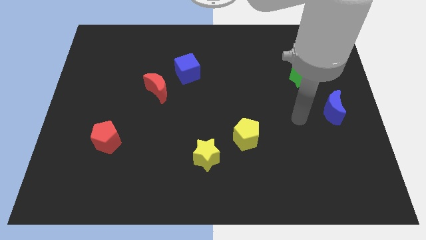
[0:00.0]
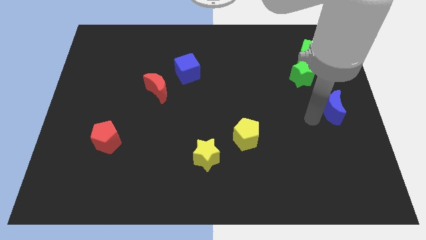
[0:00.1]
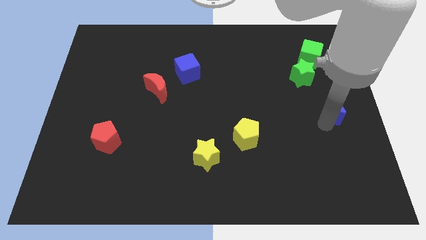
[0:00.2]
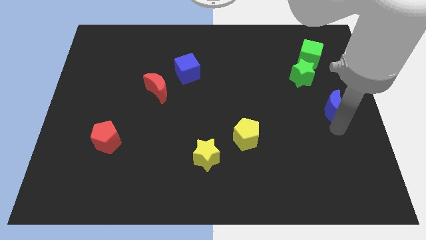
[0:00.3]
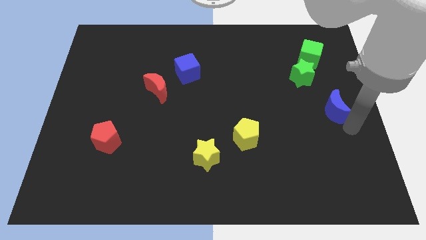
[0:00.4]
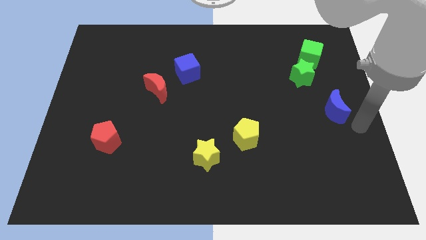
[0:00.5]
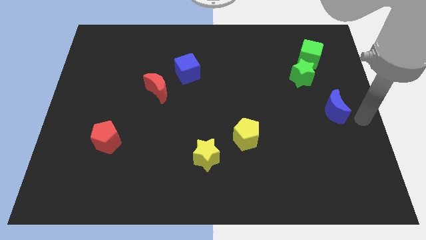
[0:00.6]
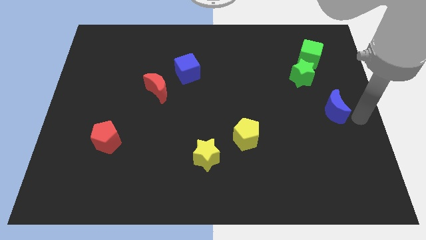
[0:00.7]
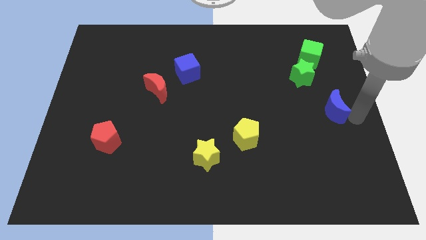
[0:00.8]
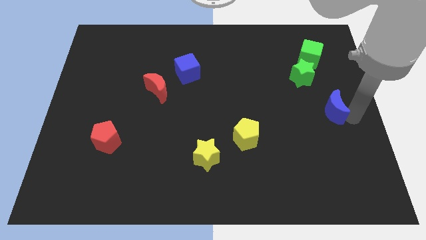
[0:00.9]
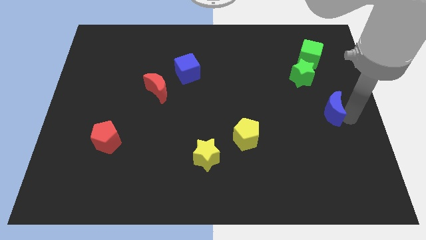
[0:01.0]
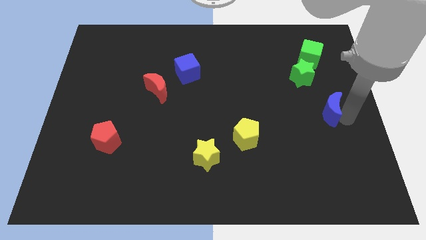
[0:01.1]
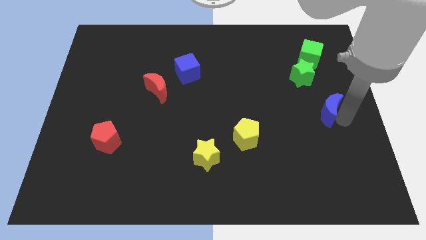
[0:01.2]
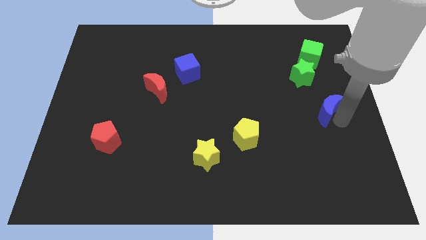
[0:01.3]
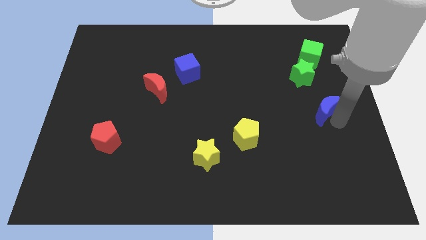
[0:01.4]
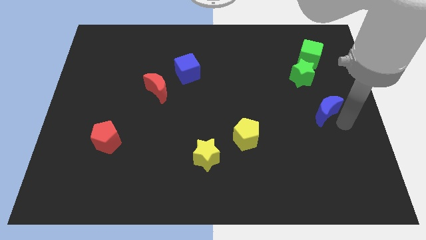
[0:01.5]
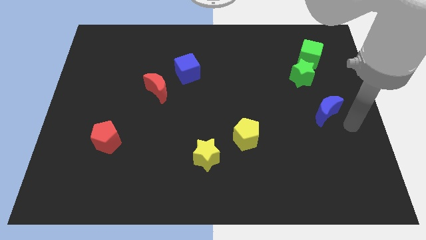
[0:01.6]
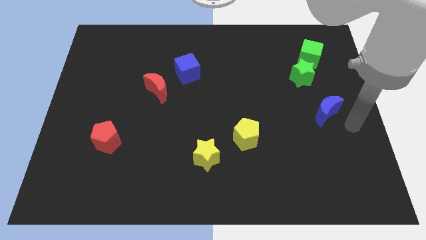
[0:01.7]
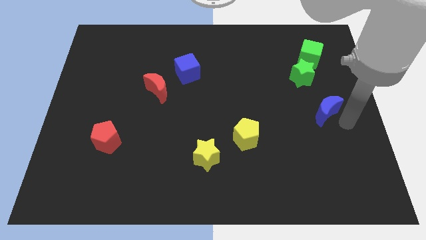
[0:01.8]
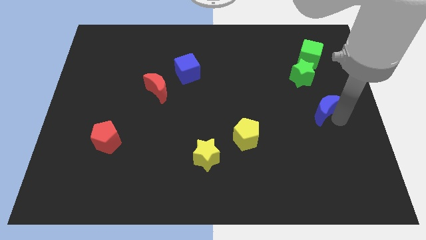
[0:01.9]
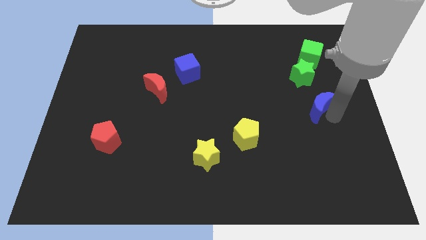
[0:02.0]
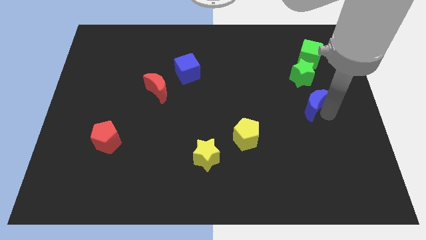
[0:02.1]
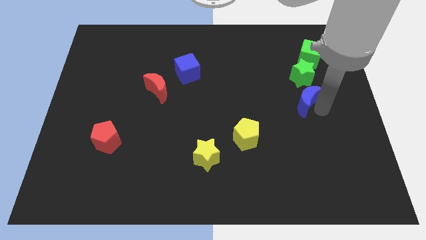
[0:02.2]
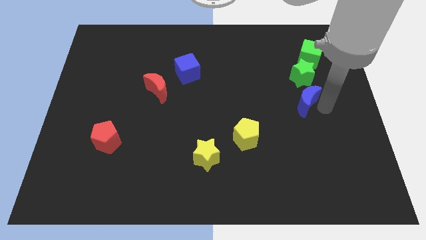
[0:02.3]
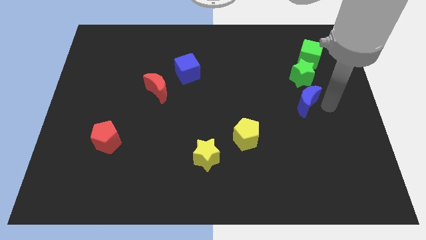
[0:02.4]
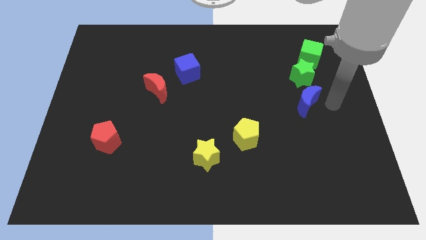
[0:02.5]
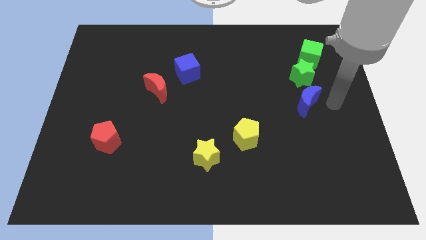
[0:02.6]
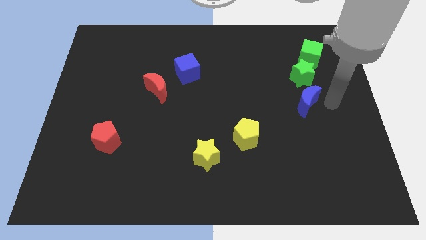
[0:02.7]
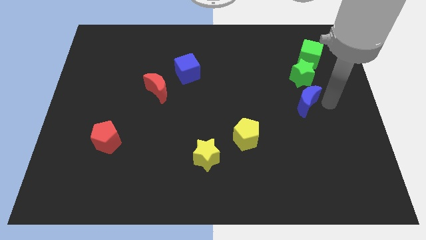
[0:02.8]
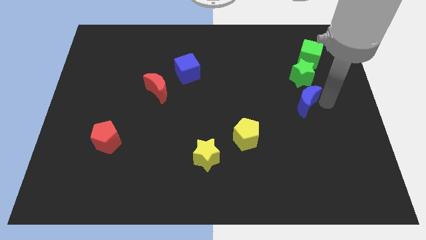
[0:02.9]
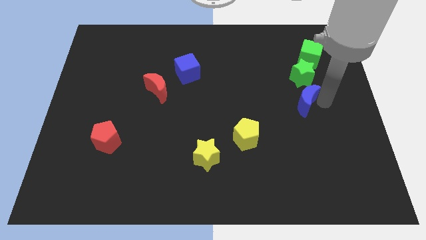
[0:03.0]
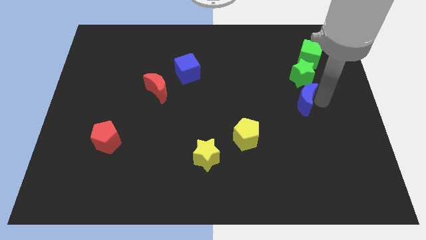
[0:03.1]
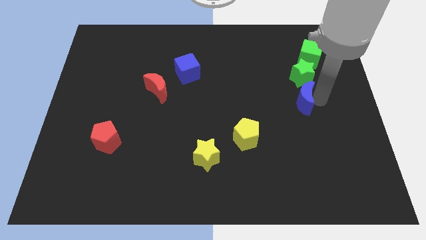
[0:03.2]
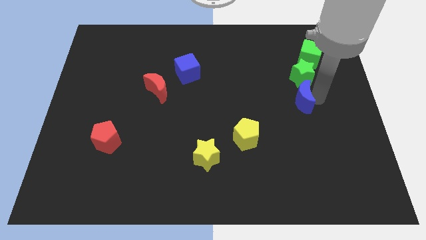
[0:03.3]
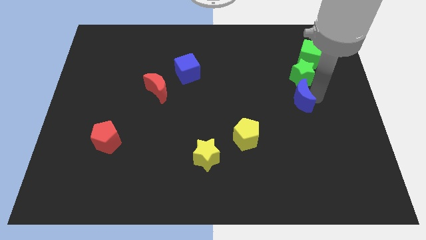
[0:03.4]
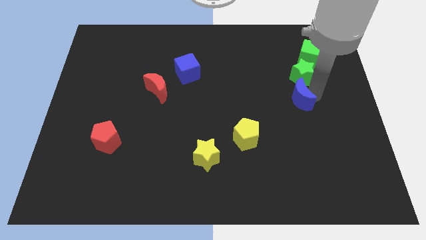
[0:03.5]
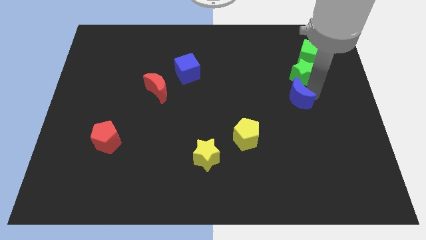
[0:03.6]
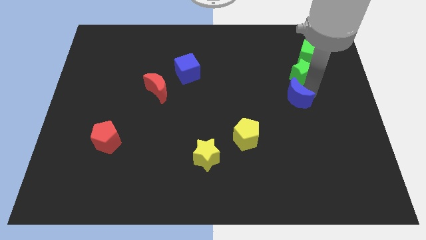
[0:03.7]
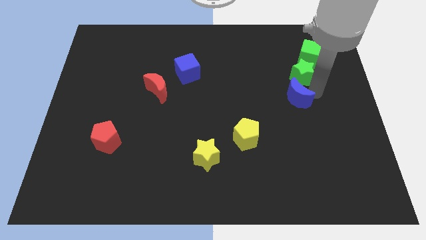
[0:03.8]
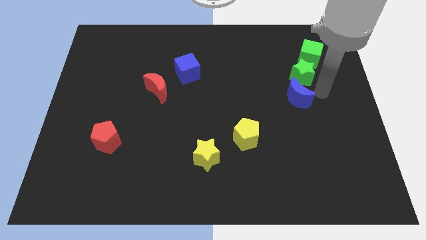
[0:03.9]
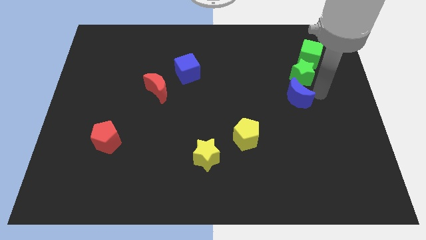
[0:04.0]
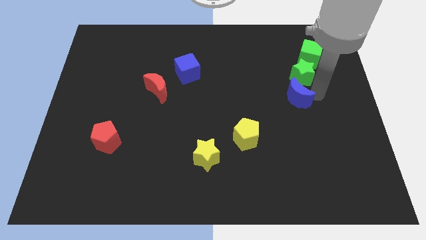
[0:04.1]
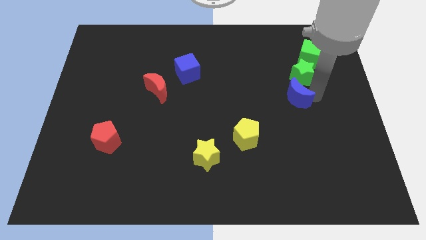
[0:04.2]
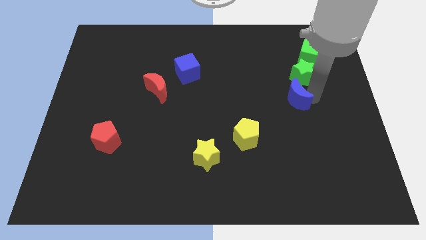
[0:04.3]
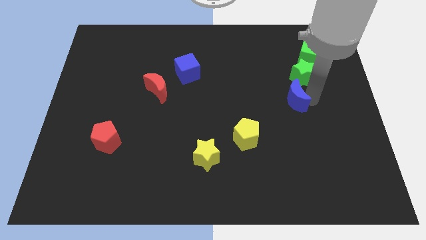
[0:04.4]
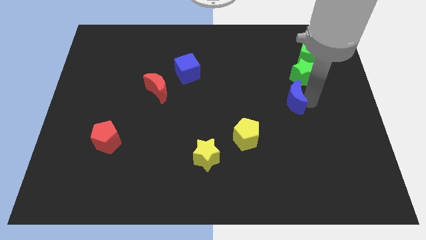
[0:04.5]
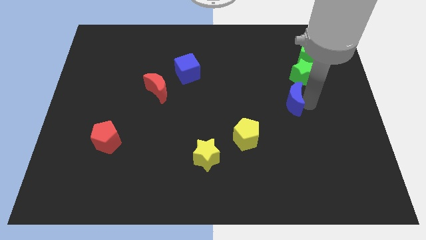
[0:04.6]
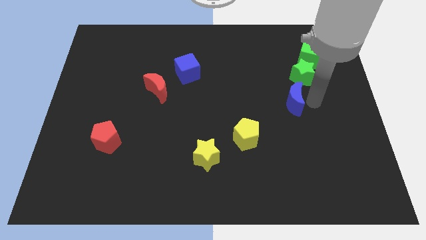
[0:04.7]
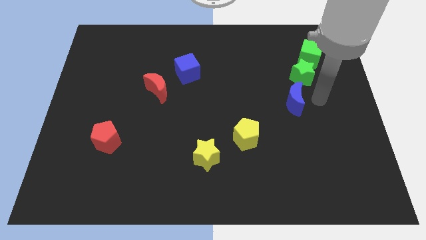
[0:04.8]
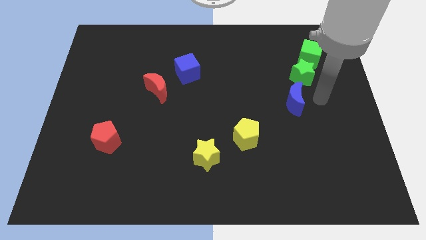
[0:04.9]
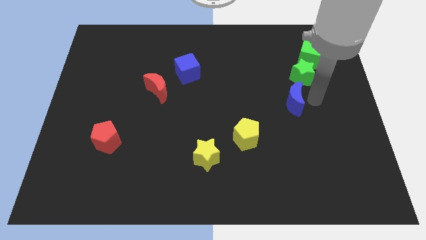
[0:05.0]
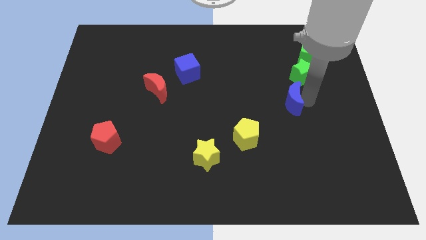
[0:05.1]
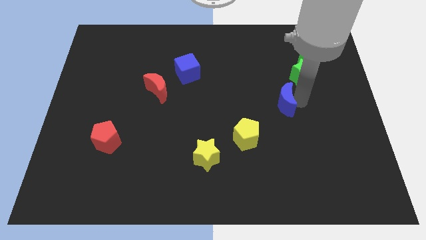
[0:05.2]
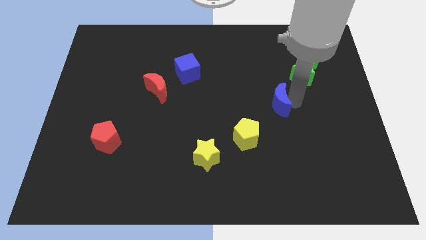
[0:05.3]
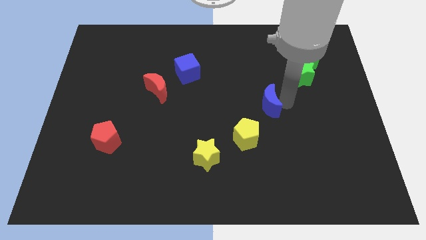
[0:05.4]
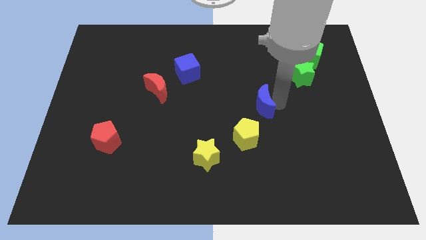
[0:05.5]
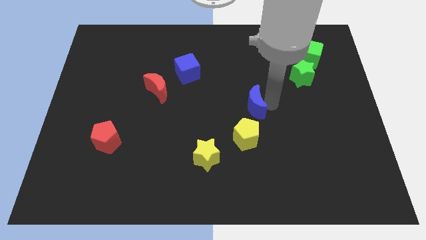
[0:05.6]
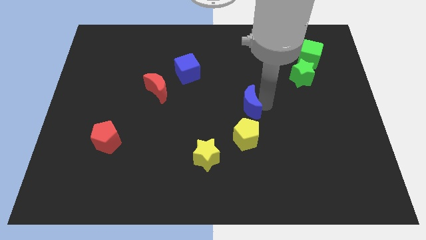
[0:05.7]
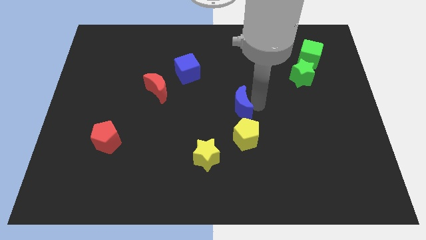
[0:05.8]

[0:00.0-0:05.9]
move the blue moon to the left

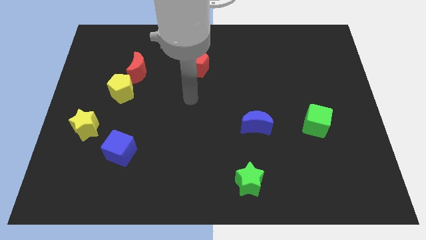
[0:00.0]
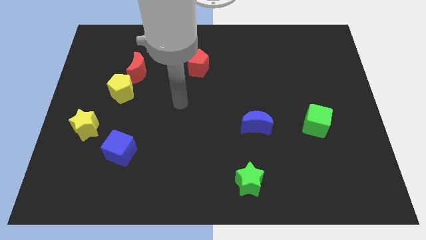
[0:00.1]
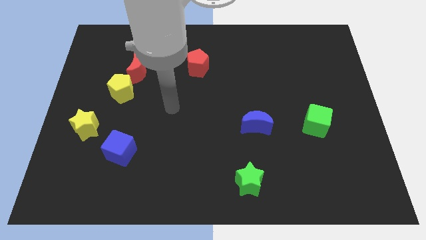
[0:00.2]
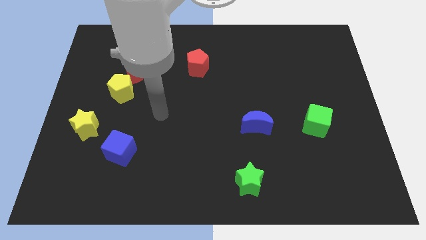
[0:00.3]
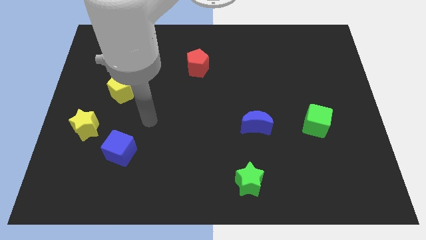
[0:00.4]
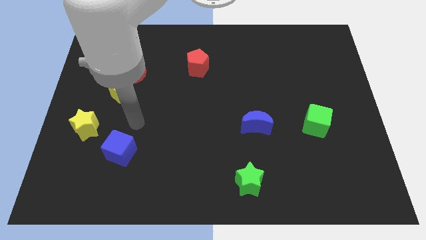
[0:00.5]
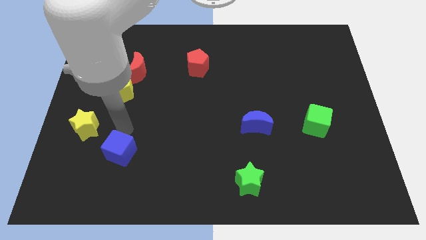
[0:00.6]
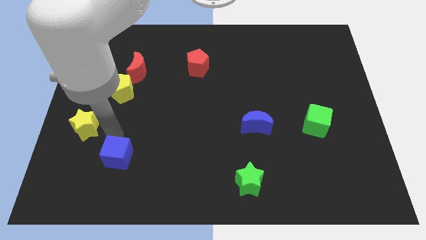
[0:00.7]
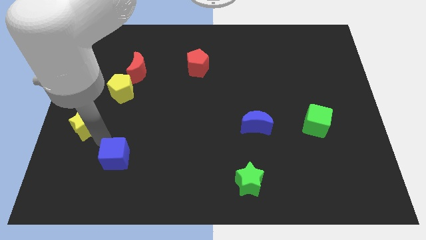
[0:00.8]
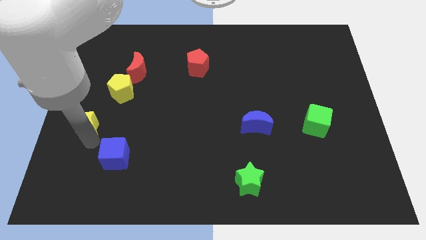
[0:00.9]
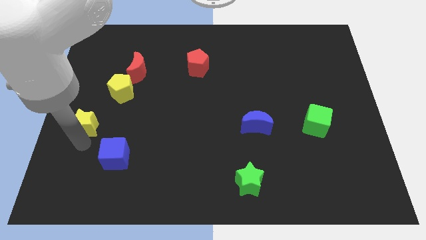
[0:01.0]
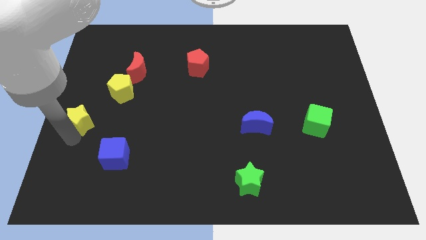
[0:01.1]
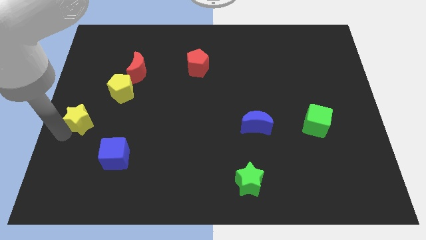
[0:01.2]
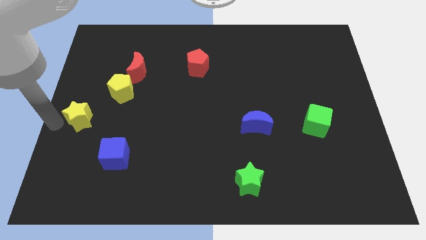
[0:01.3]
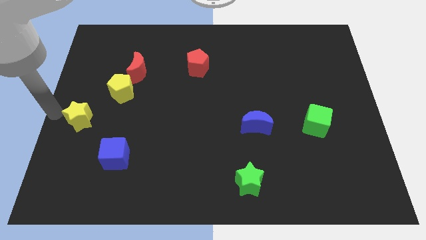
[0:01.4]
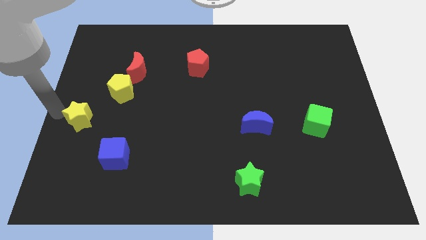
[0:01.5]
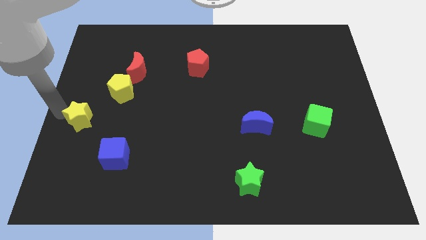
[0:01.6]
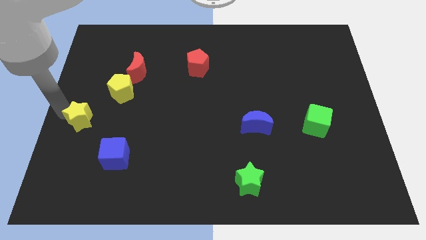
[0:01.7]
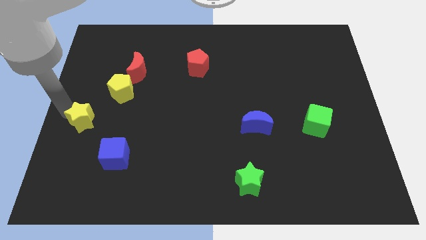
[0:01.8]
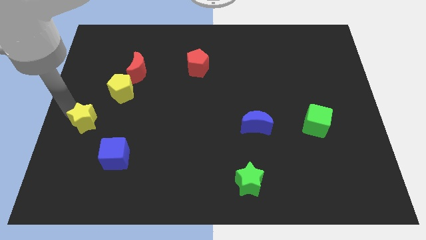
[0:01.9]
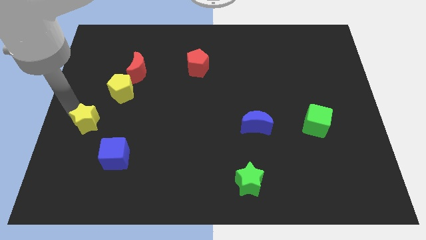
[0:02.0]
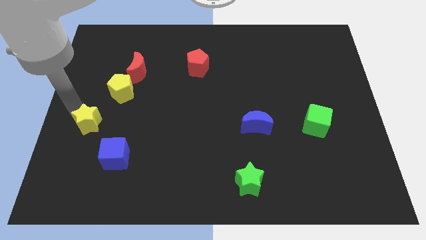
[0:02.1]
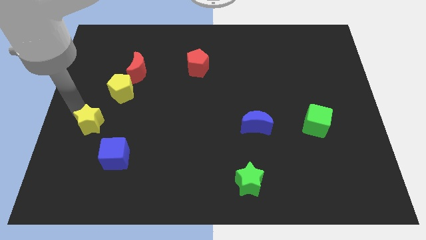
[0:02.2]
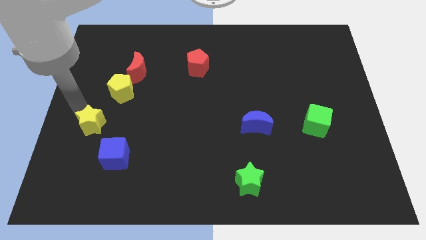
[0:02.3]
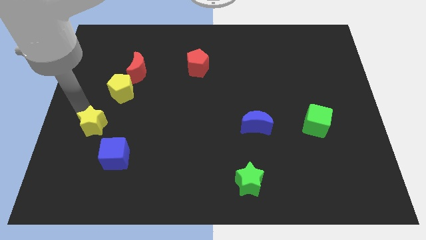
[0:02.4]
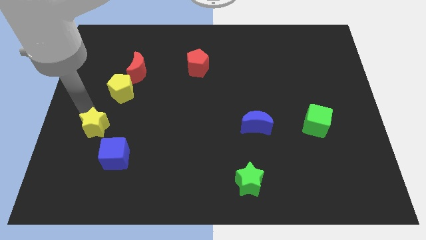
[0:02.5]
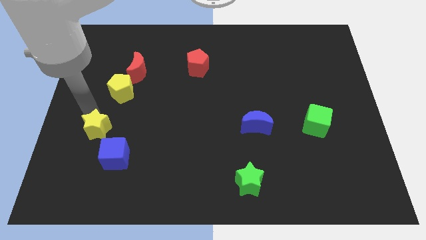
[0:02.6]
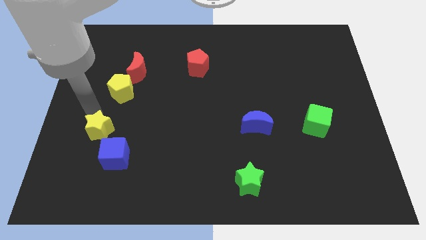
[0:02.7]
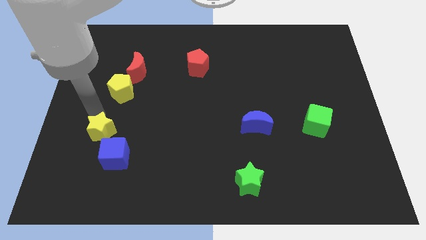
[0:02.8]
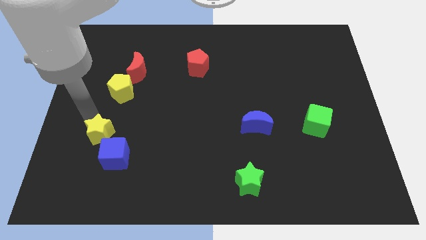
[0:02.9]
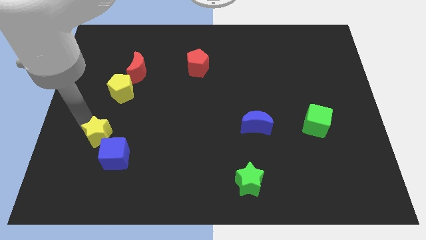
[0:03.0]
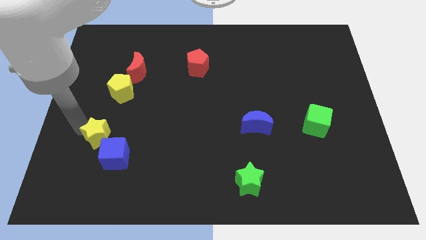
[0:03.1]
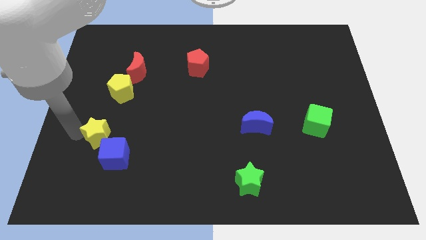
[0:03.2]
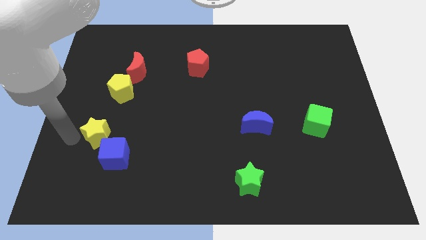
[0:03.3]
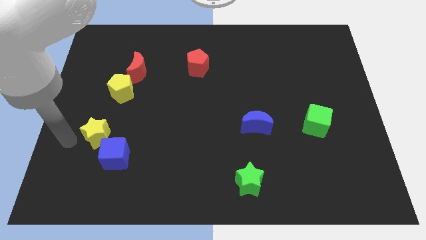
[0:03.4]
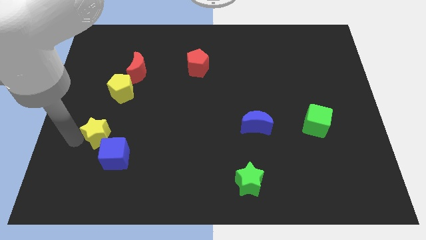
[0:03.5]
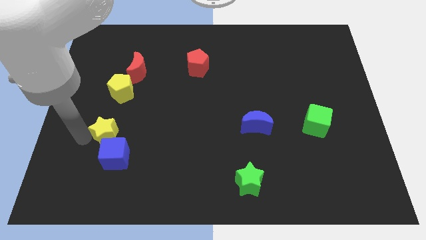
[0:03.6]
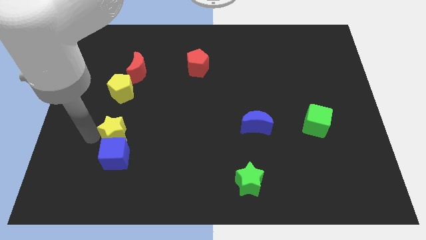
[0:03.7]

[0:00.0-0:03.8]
slide the yellow star right a little
